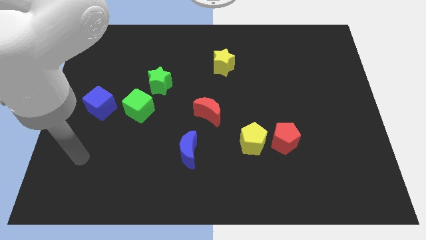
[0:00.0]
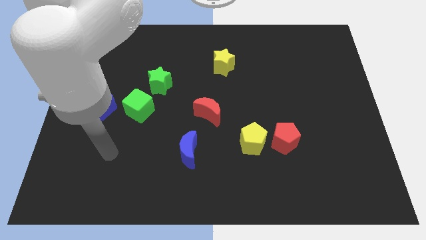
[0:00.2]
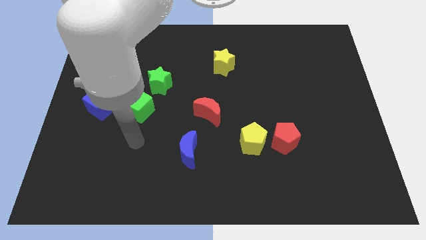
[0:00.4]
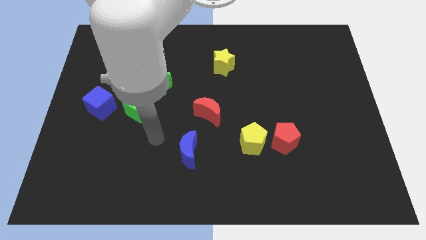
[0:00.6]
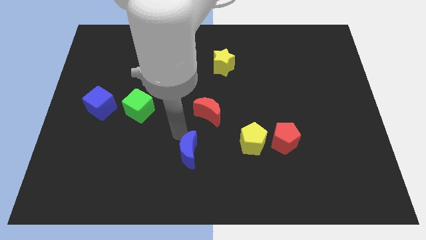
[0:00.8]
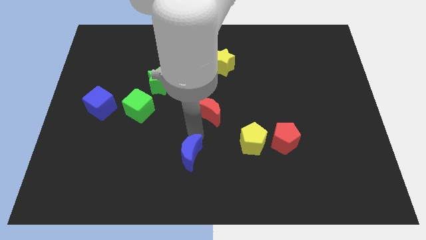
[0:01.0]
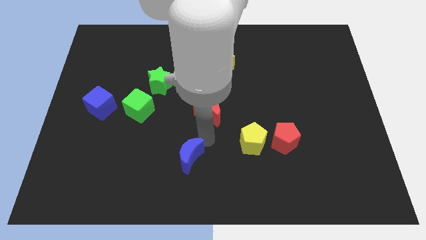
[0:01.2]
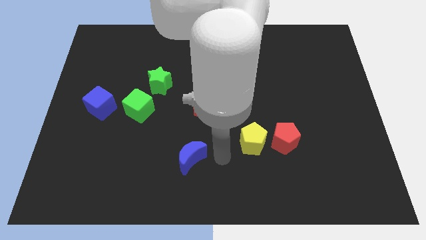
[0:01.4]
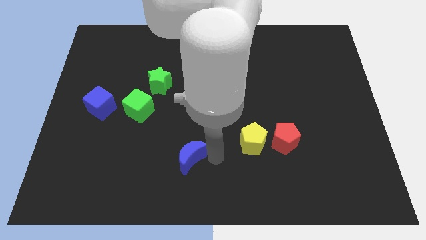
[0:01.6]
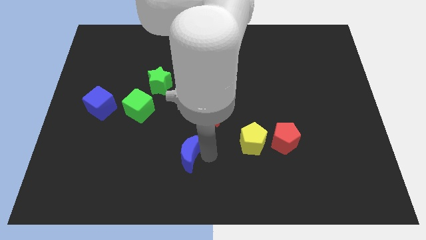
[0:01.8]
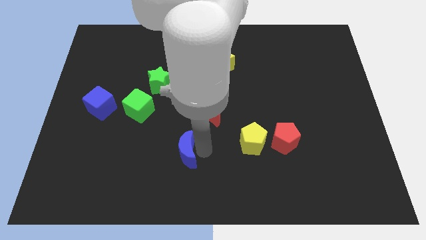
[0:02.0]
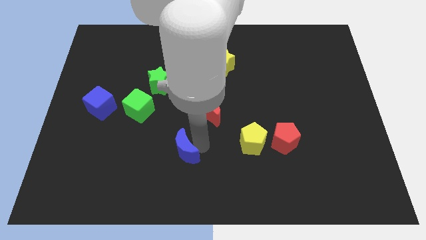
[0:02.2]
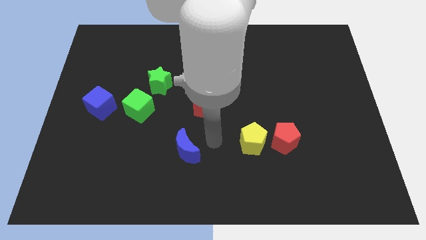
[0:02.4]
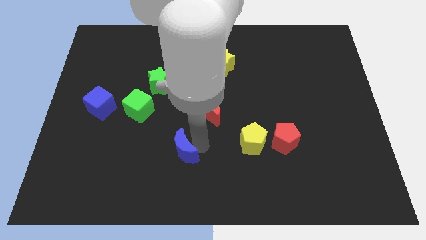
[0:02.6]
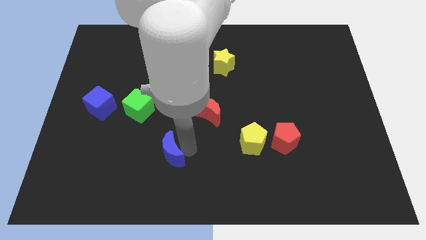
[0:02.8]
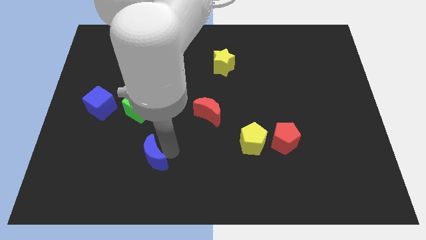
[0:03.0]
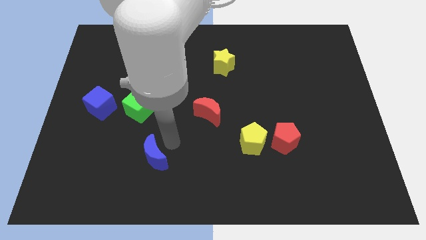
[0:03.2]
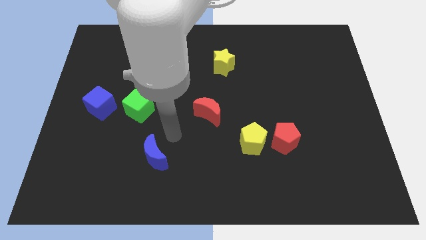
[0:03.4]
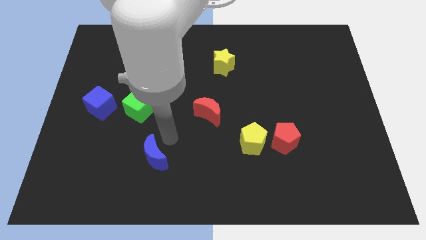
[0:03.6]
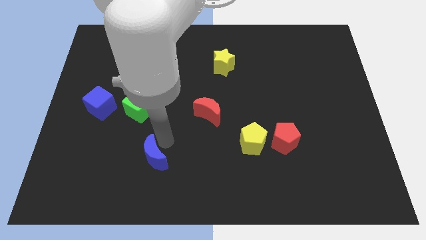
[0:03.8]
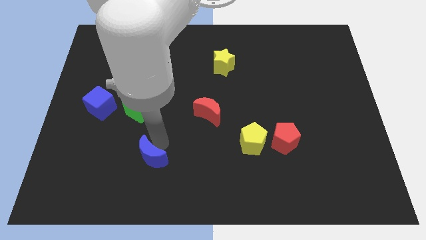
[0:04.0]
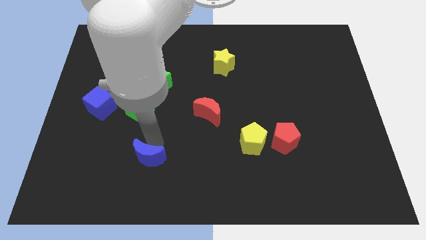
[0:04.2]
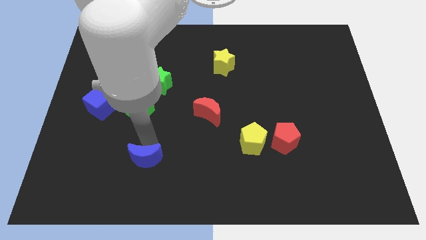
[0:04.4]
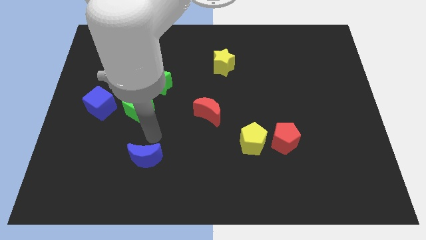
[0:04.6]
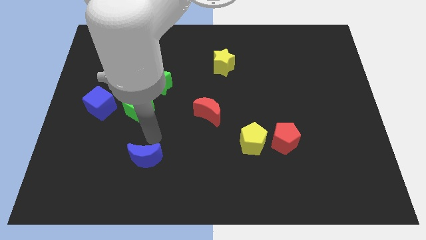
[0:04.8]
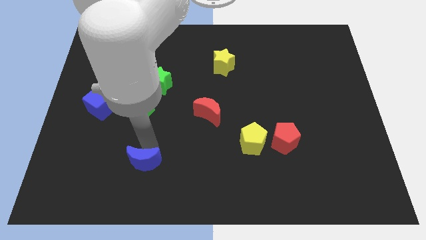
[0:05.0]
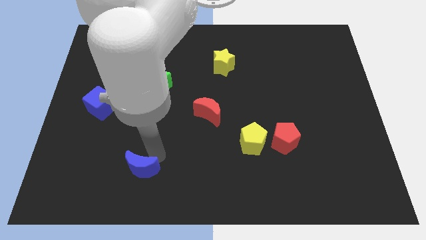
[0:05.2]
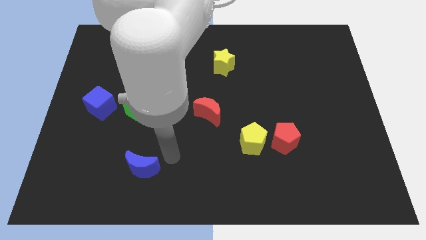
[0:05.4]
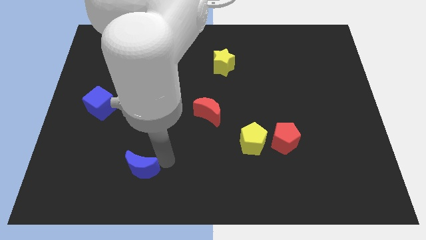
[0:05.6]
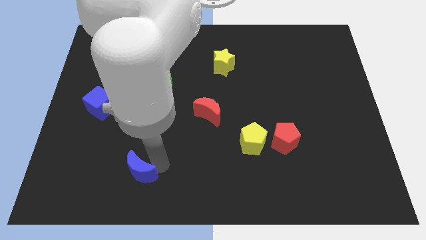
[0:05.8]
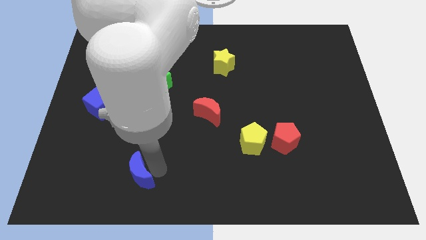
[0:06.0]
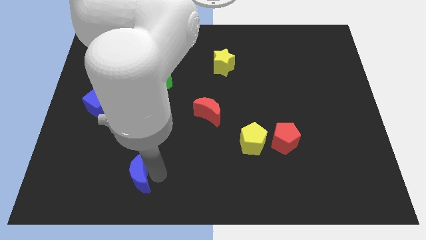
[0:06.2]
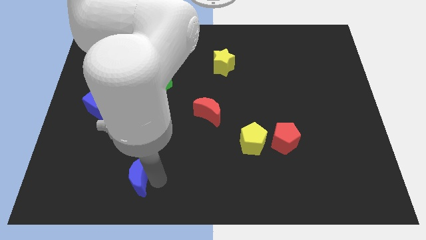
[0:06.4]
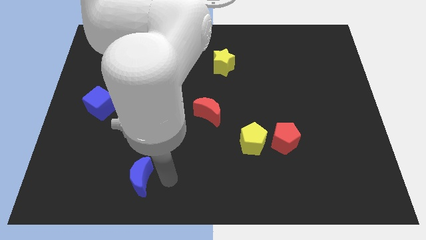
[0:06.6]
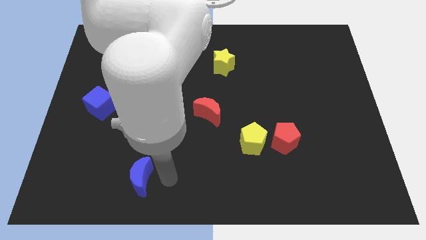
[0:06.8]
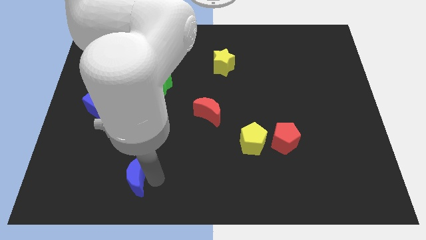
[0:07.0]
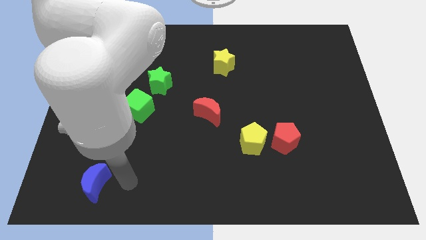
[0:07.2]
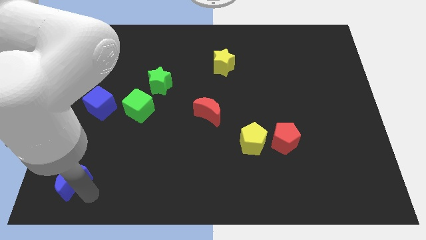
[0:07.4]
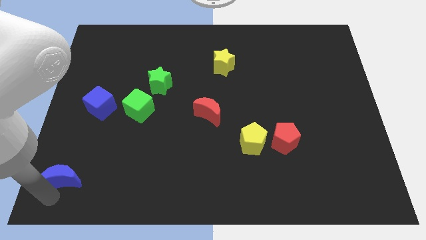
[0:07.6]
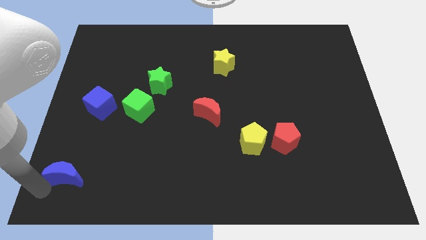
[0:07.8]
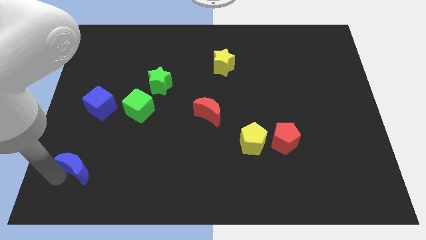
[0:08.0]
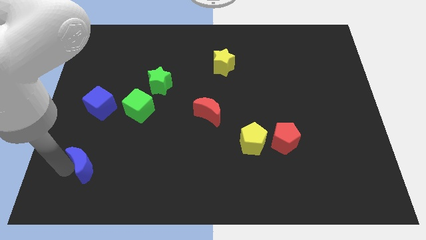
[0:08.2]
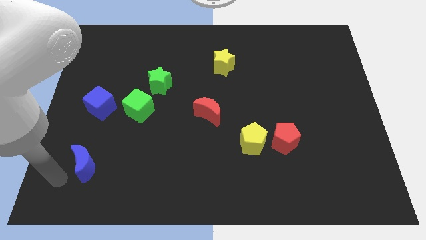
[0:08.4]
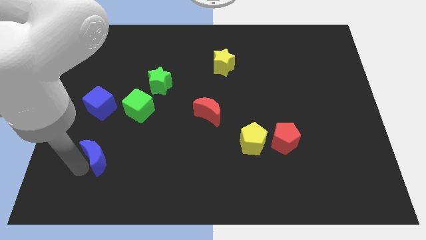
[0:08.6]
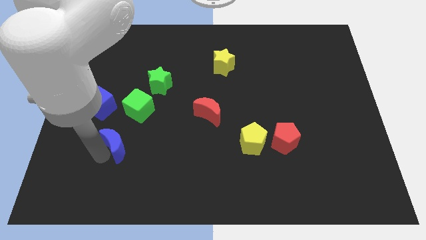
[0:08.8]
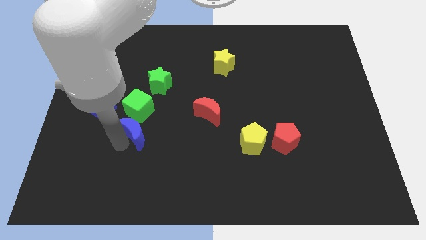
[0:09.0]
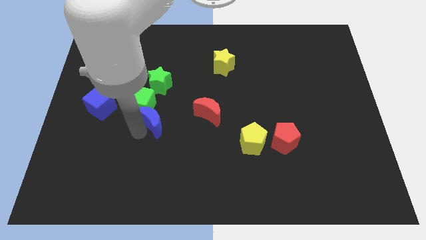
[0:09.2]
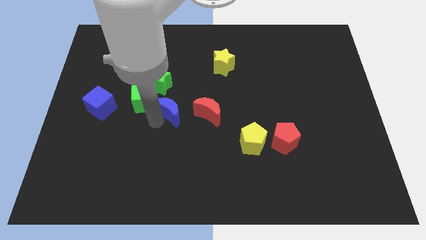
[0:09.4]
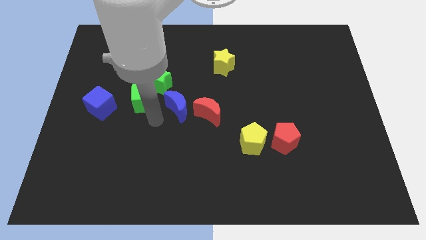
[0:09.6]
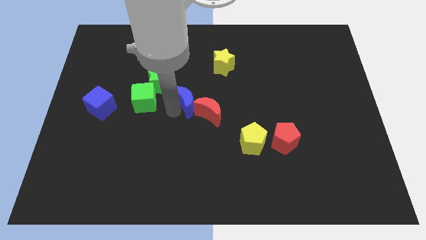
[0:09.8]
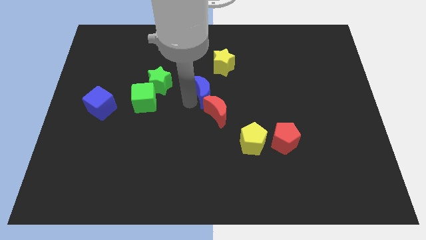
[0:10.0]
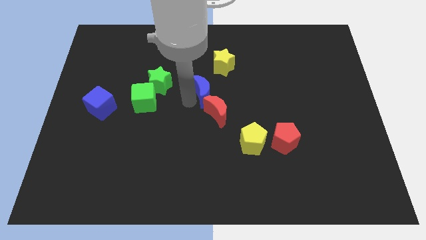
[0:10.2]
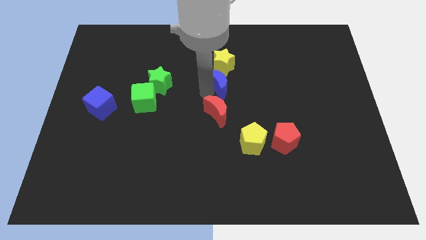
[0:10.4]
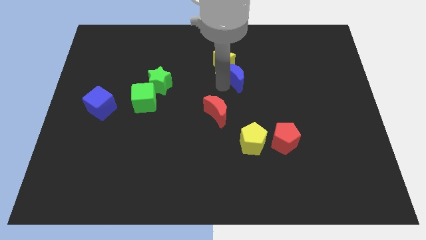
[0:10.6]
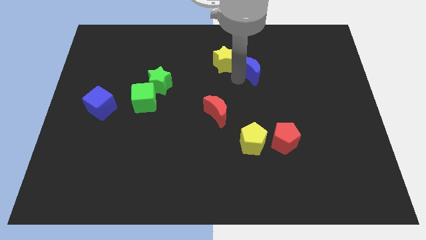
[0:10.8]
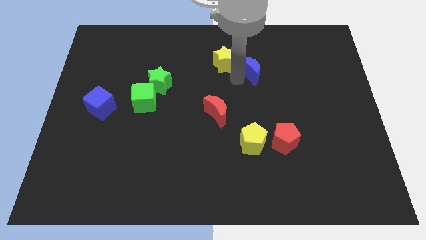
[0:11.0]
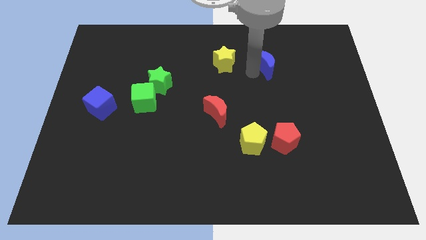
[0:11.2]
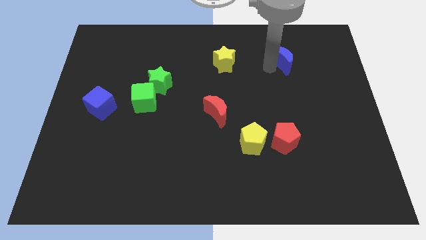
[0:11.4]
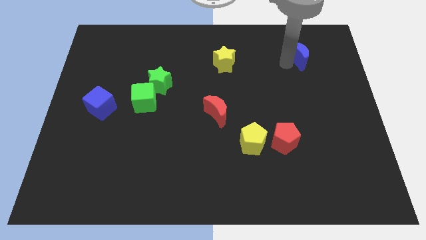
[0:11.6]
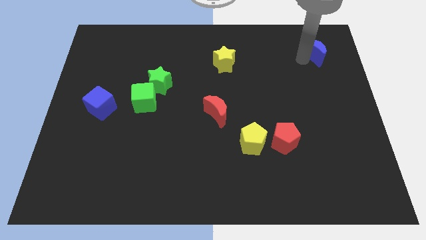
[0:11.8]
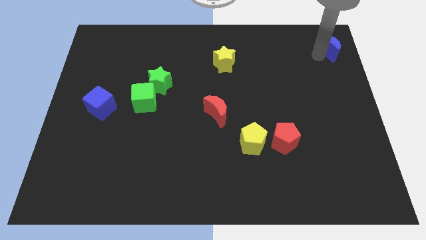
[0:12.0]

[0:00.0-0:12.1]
move the blue moon to the top right of the board

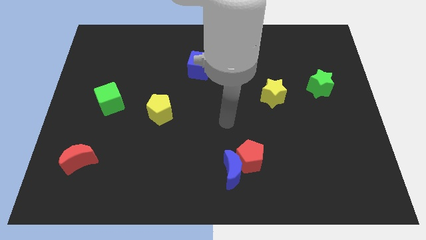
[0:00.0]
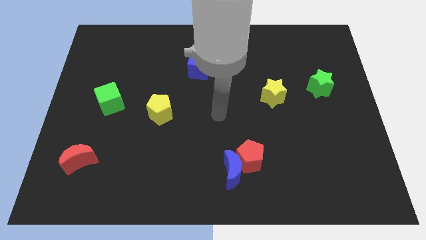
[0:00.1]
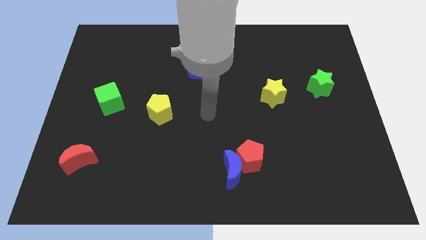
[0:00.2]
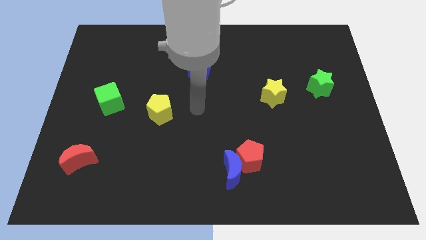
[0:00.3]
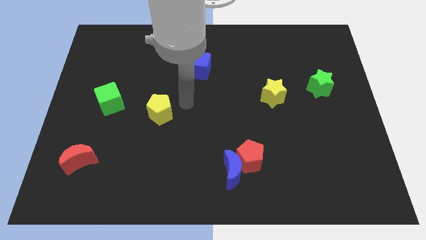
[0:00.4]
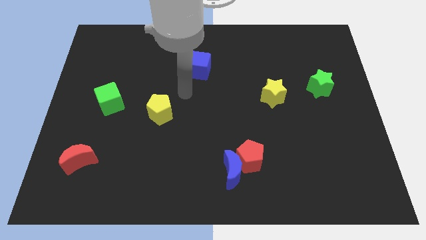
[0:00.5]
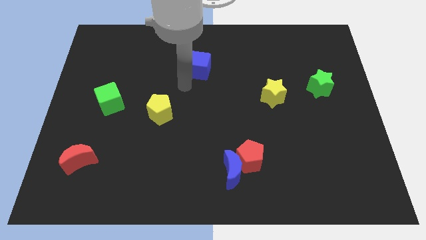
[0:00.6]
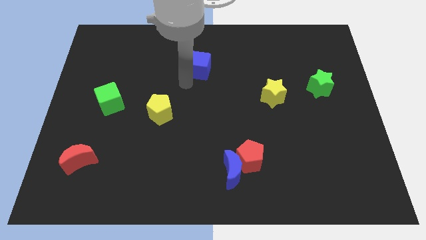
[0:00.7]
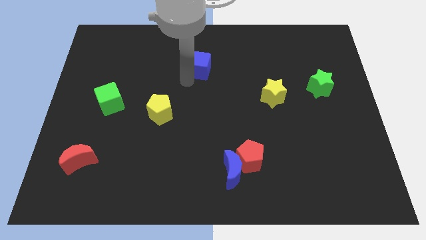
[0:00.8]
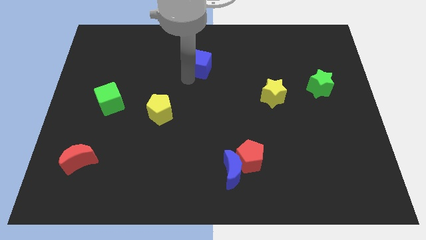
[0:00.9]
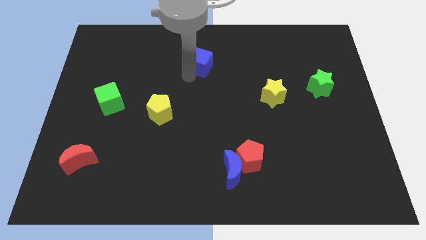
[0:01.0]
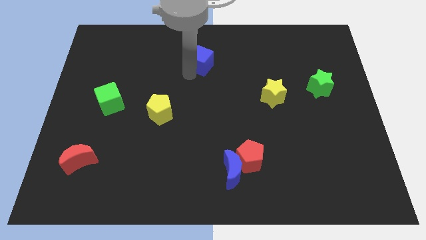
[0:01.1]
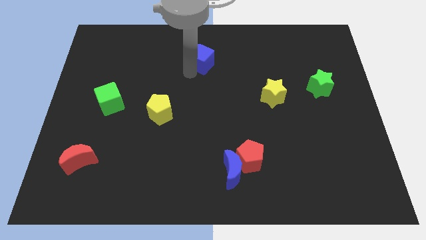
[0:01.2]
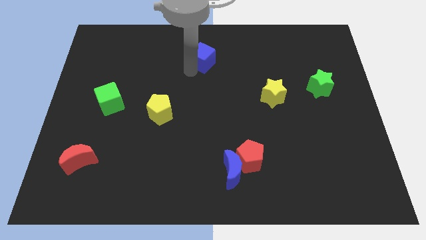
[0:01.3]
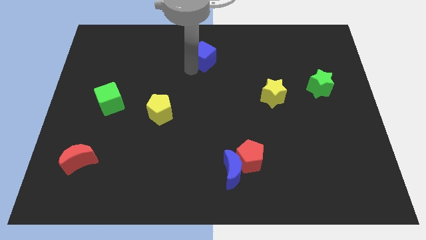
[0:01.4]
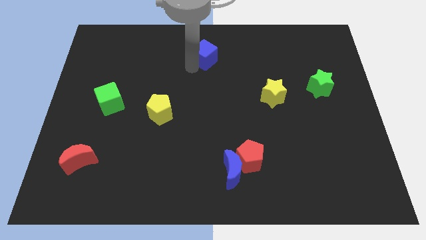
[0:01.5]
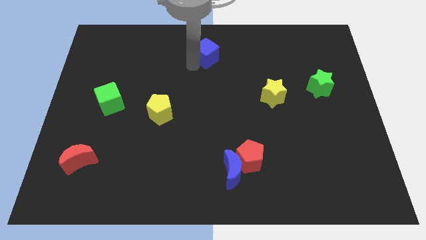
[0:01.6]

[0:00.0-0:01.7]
push the blue cube to the top
